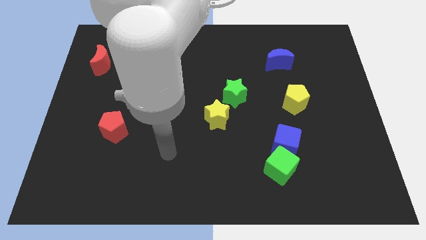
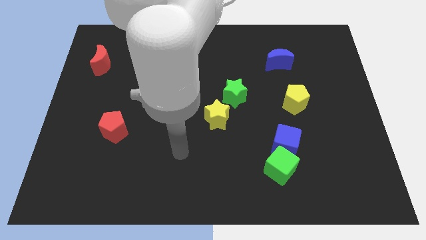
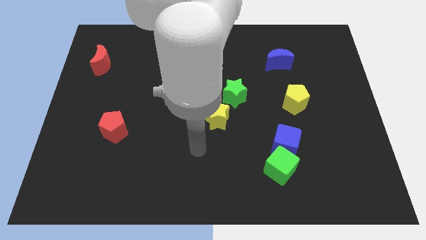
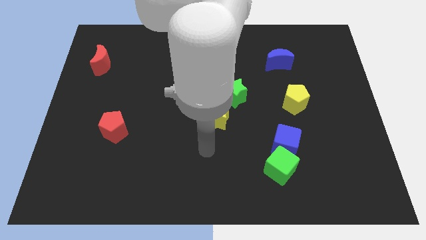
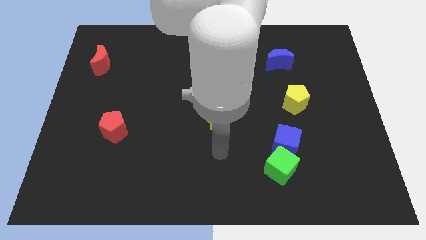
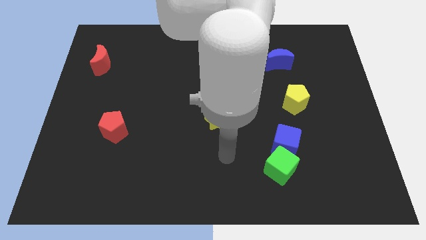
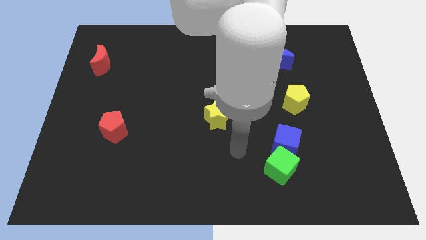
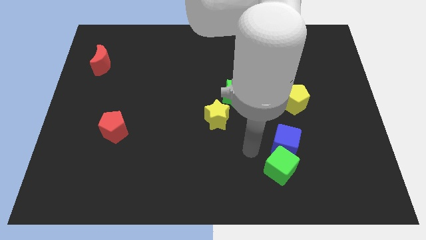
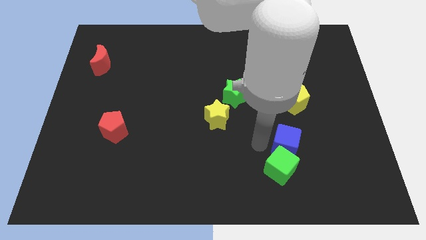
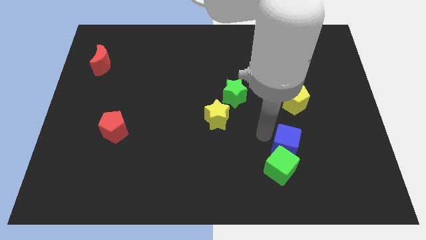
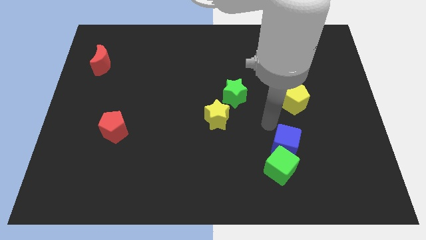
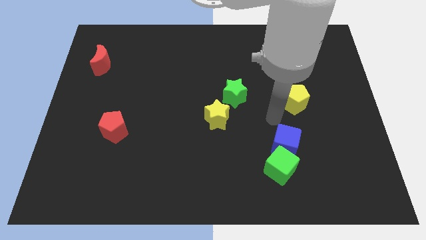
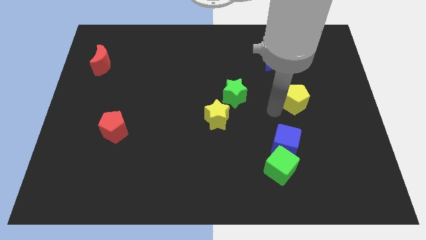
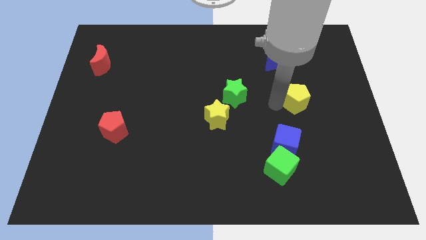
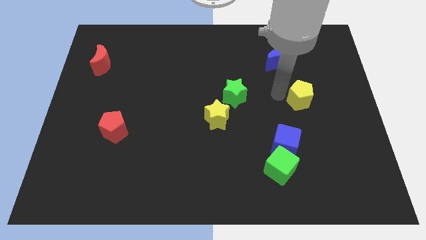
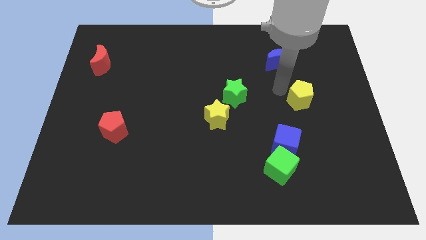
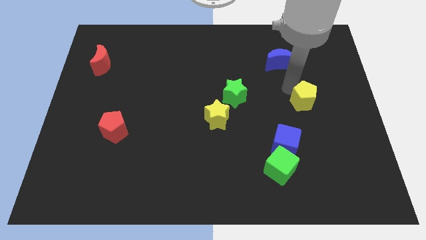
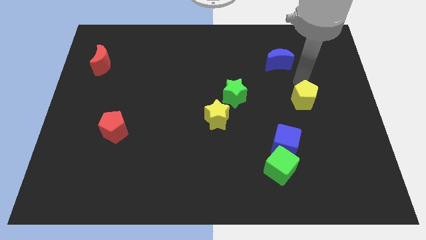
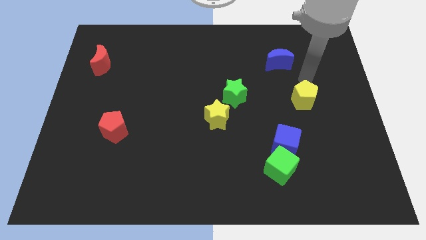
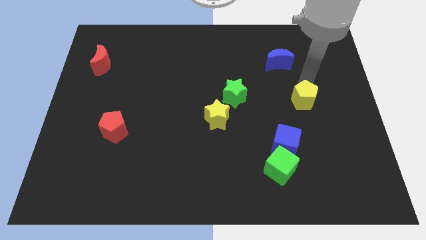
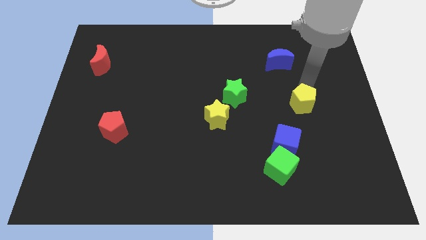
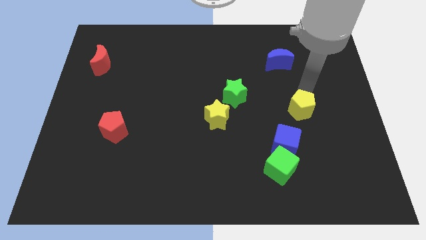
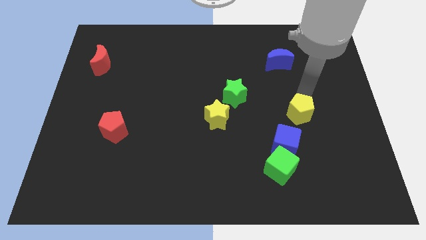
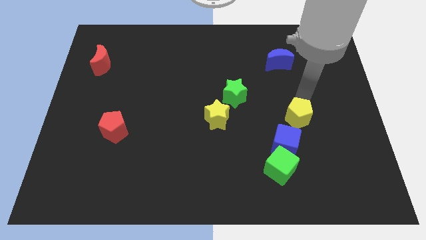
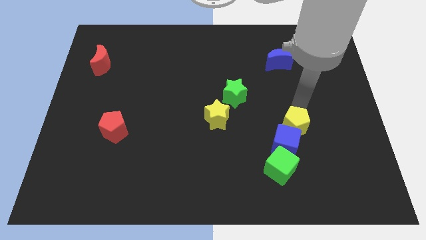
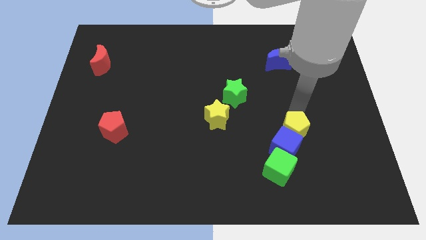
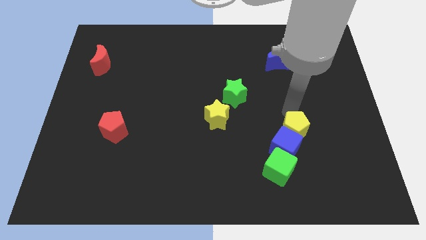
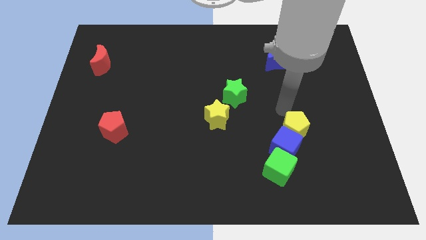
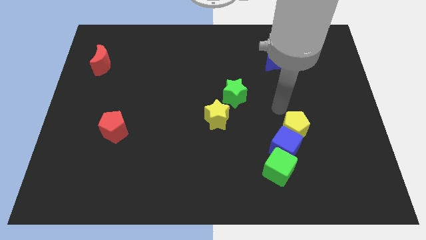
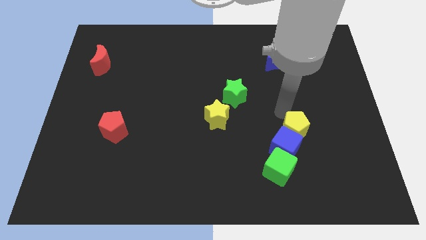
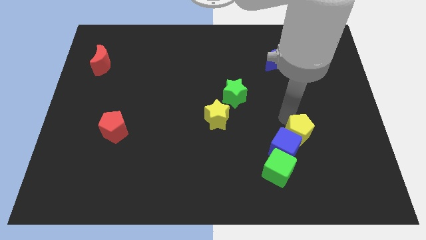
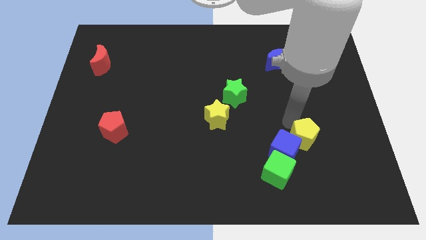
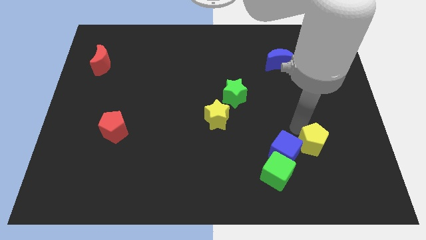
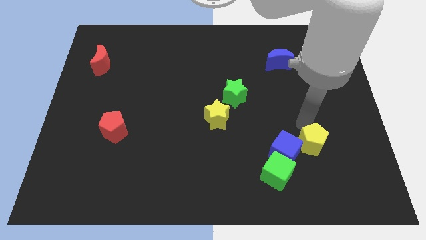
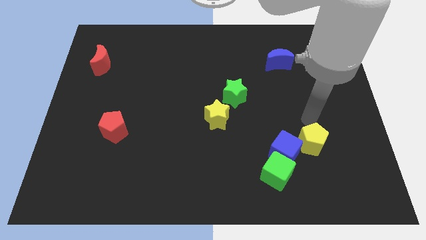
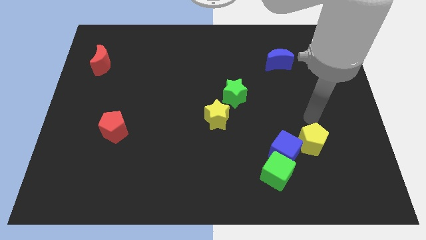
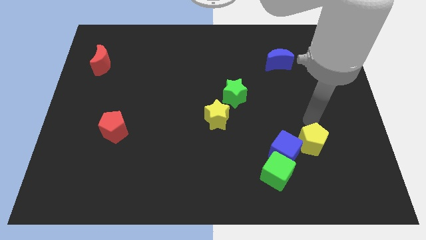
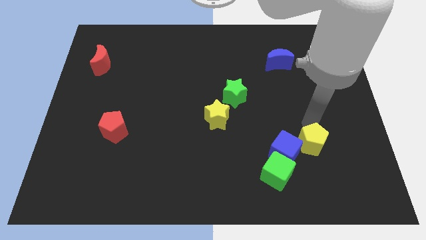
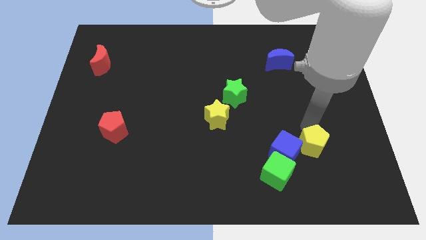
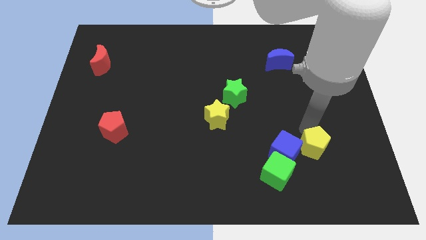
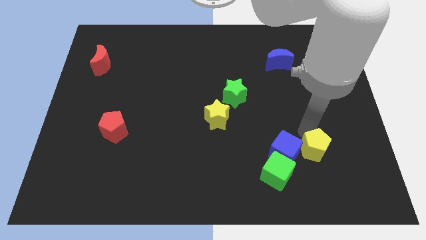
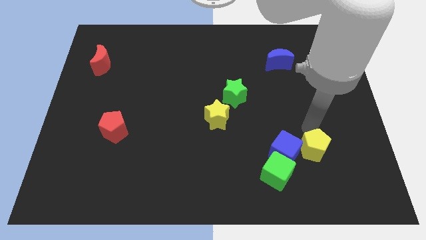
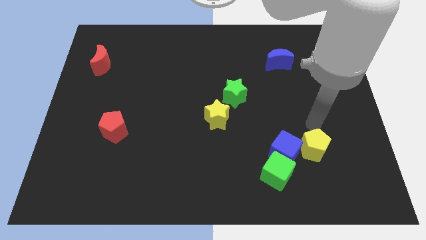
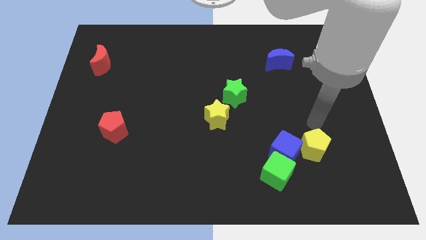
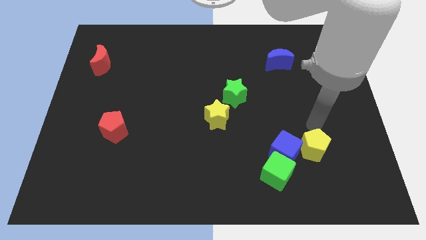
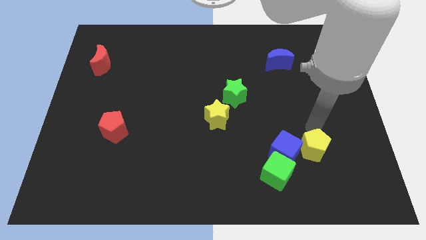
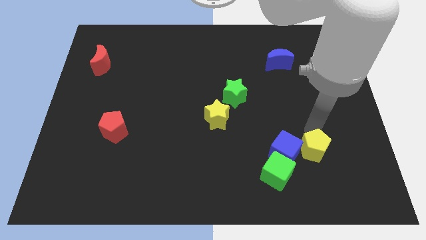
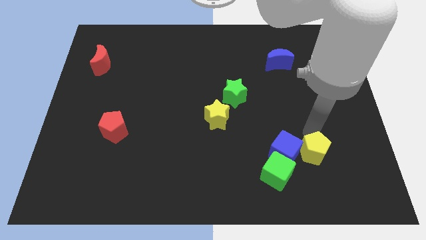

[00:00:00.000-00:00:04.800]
put the yellow pentagon to the bottom right side of the blue cube
